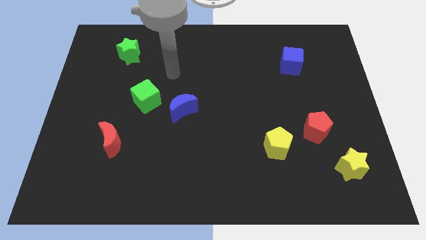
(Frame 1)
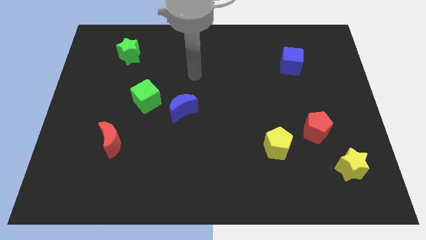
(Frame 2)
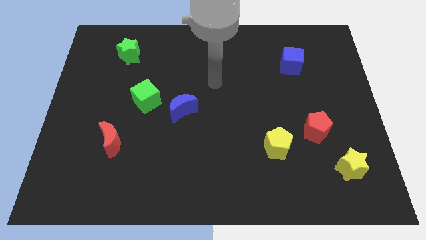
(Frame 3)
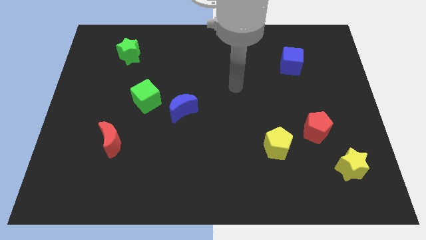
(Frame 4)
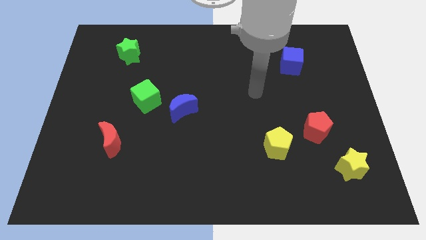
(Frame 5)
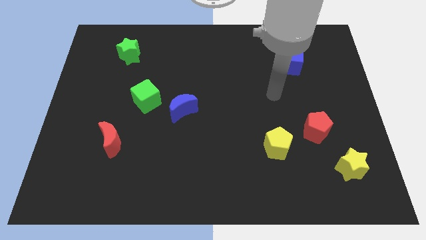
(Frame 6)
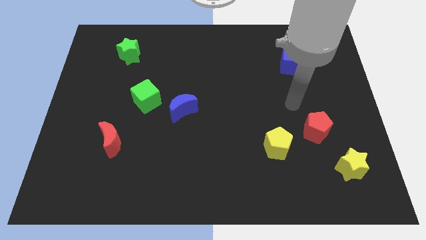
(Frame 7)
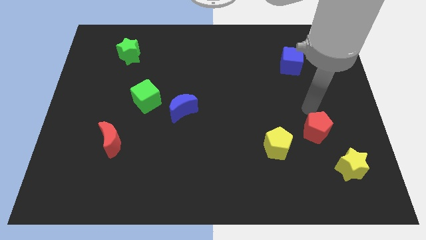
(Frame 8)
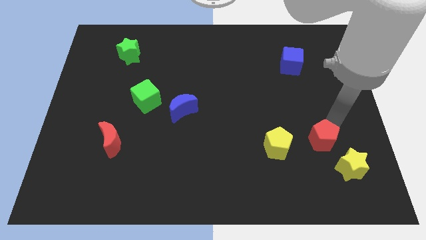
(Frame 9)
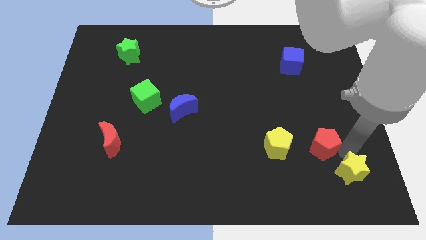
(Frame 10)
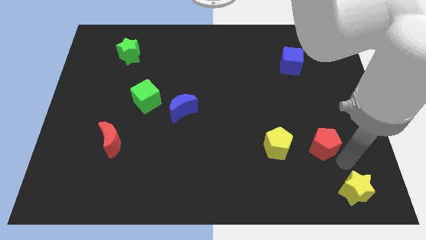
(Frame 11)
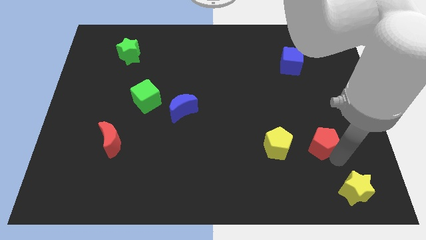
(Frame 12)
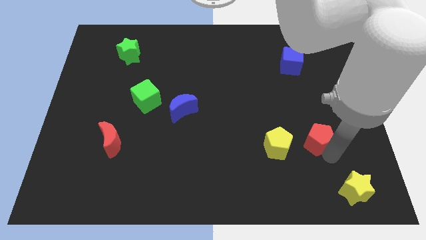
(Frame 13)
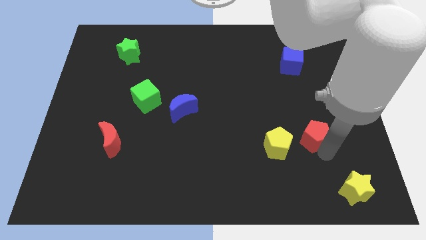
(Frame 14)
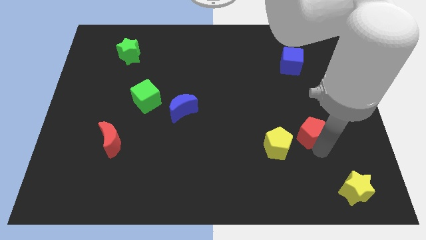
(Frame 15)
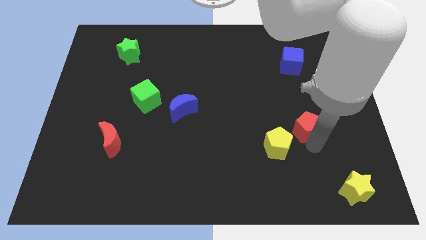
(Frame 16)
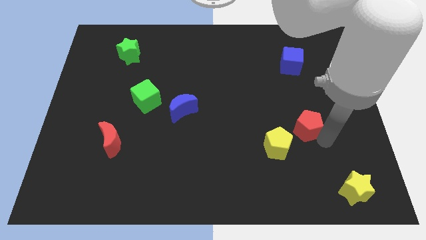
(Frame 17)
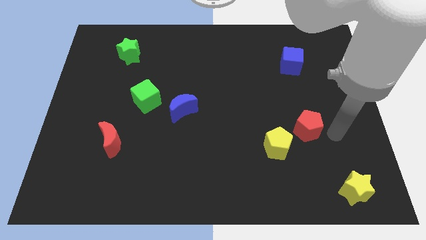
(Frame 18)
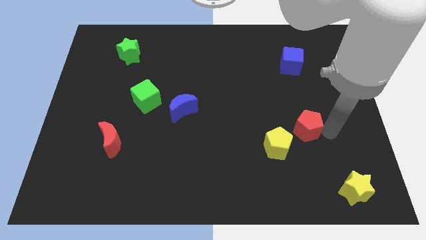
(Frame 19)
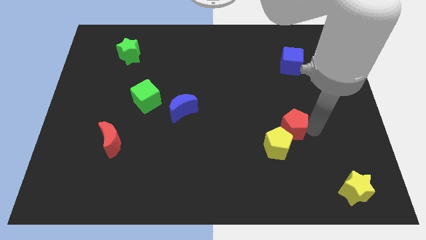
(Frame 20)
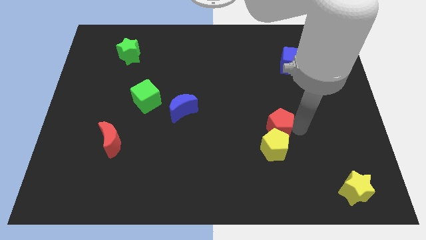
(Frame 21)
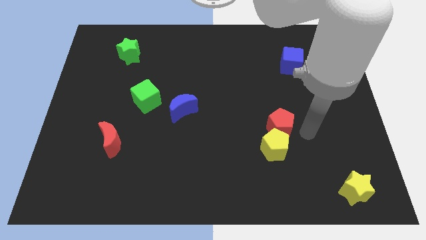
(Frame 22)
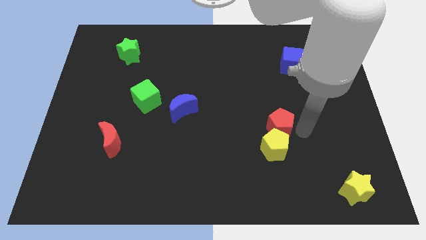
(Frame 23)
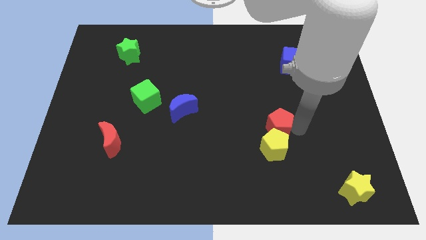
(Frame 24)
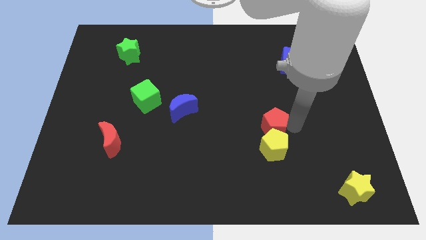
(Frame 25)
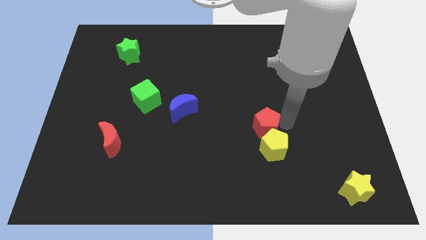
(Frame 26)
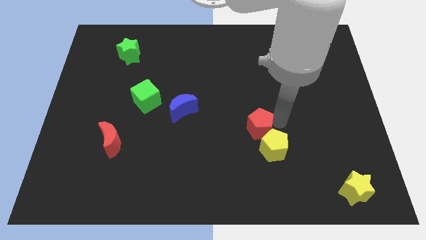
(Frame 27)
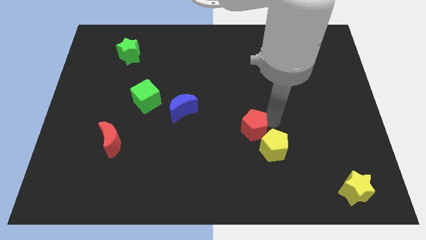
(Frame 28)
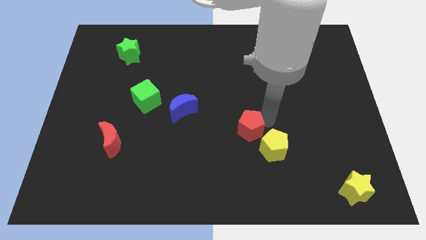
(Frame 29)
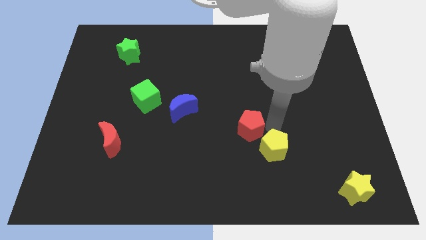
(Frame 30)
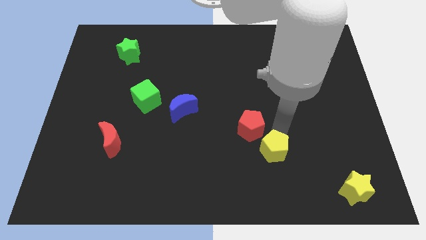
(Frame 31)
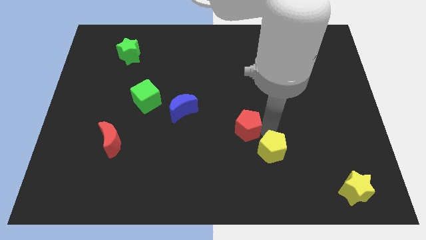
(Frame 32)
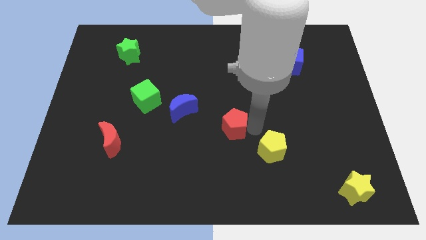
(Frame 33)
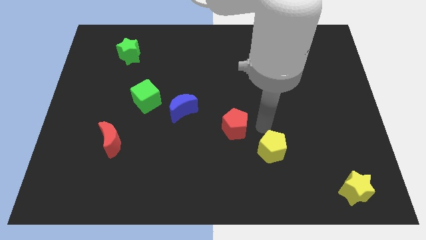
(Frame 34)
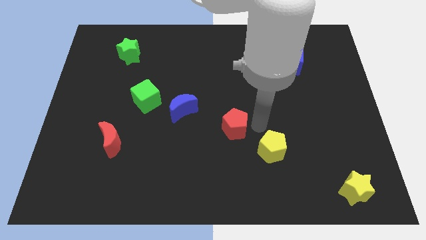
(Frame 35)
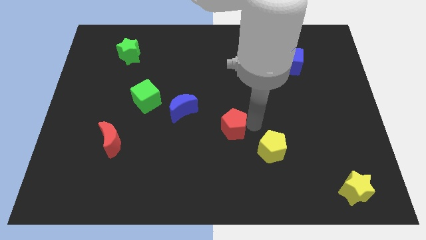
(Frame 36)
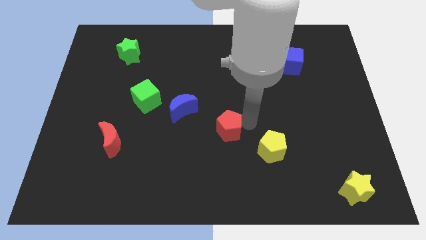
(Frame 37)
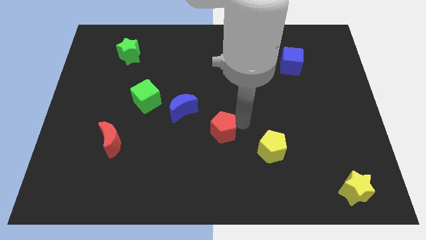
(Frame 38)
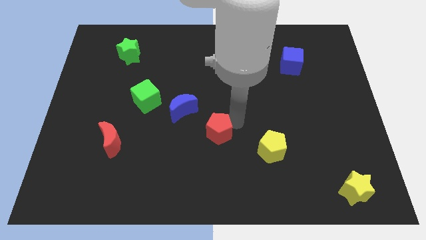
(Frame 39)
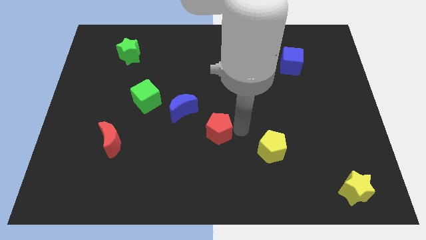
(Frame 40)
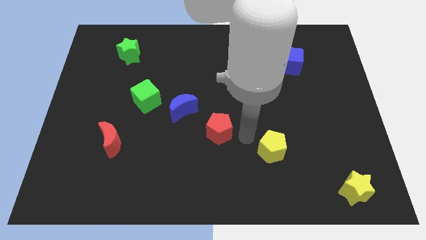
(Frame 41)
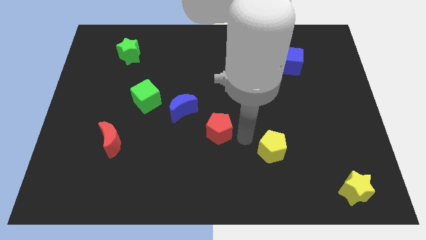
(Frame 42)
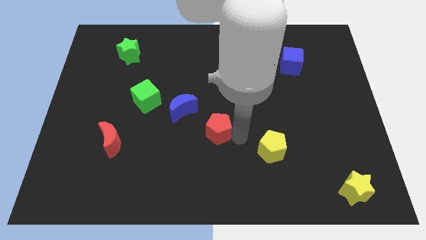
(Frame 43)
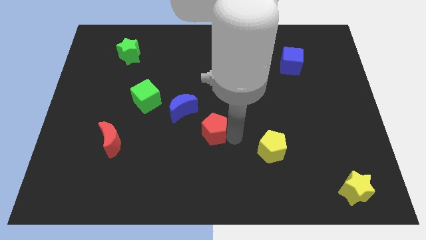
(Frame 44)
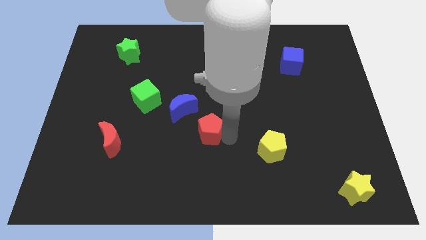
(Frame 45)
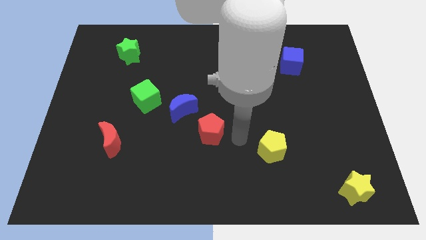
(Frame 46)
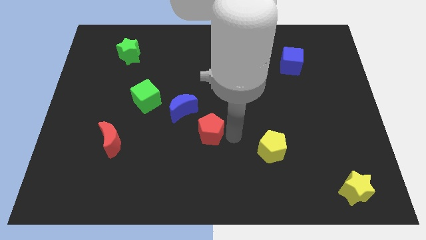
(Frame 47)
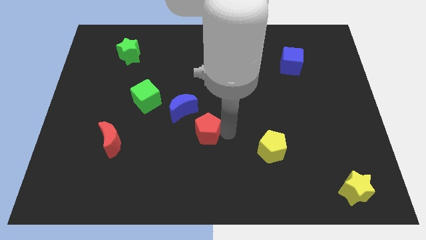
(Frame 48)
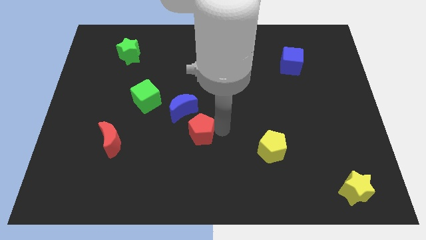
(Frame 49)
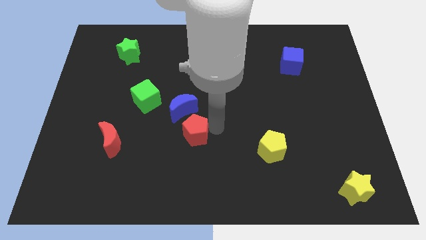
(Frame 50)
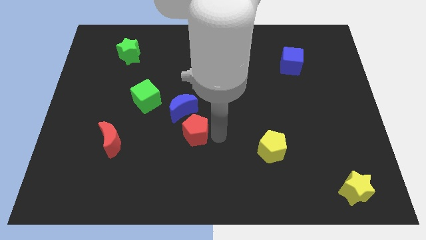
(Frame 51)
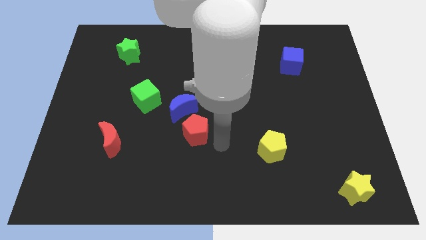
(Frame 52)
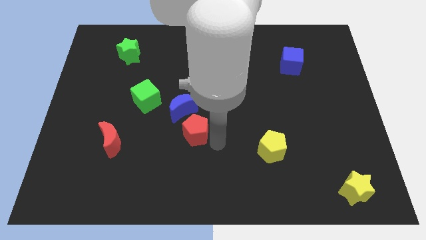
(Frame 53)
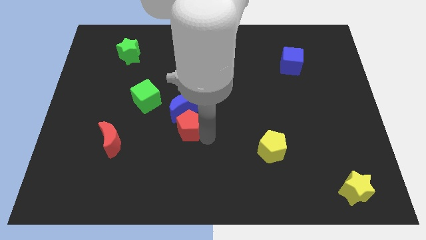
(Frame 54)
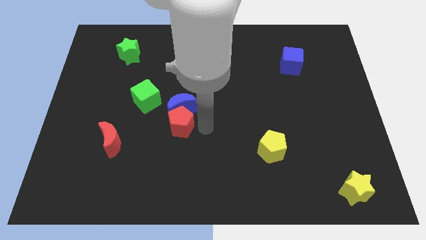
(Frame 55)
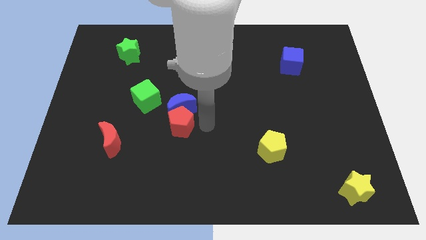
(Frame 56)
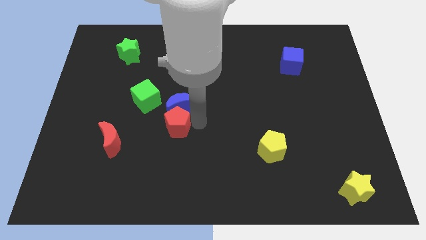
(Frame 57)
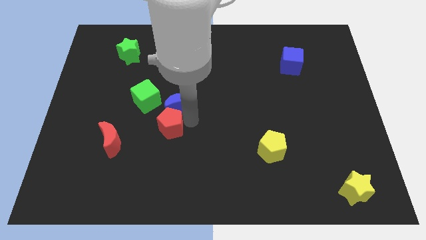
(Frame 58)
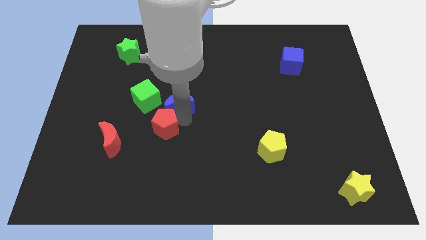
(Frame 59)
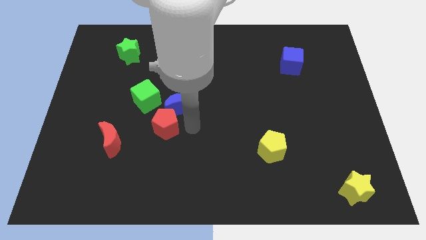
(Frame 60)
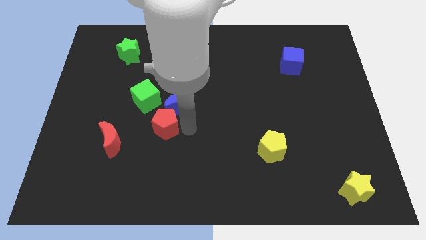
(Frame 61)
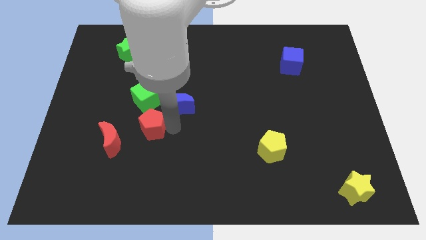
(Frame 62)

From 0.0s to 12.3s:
slide the red pentagon to the top right side of the red moon
